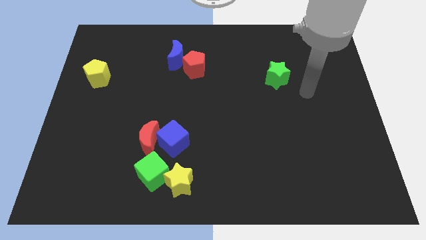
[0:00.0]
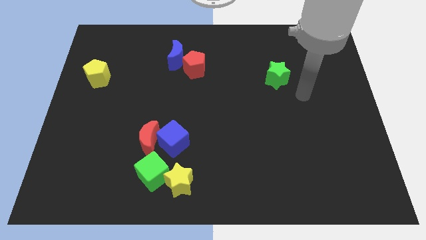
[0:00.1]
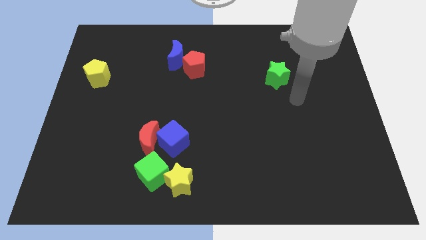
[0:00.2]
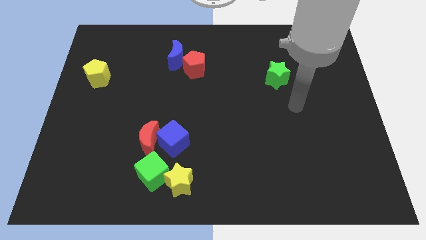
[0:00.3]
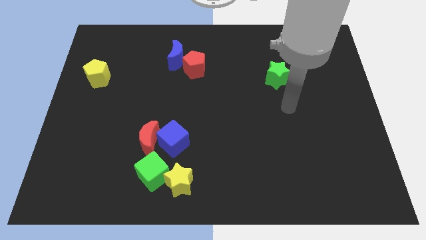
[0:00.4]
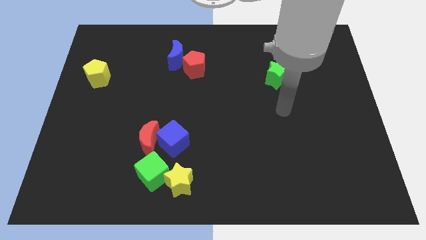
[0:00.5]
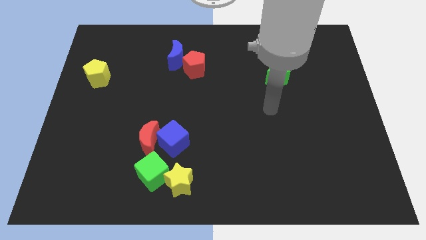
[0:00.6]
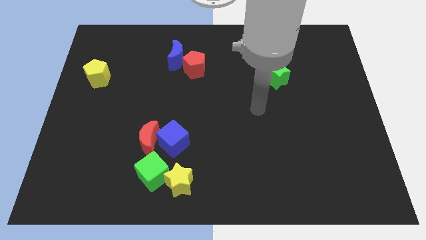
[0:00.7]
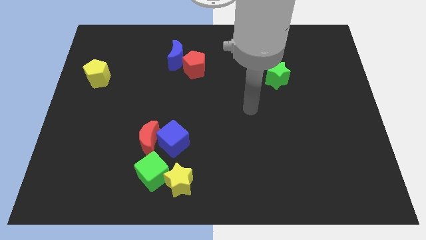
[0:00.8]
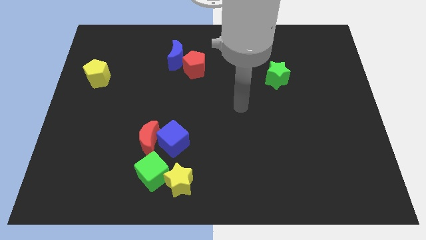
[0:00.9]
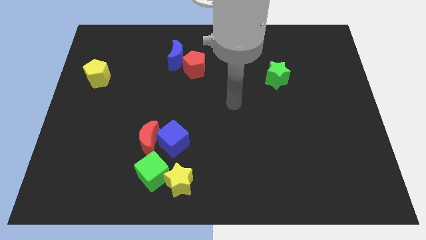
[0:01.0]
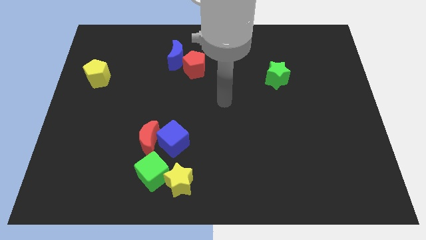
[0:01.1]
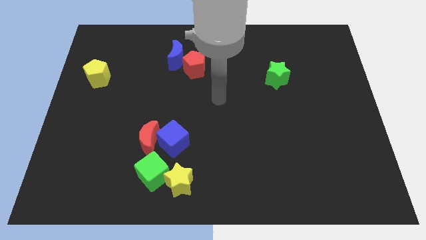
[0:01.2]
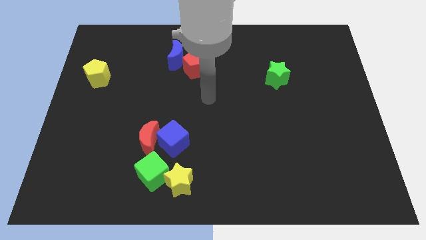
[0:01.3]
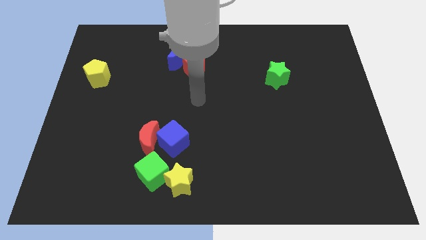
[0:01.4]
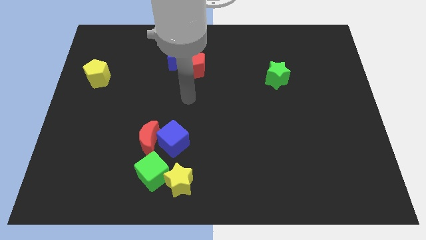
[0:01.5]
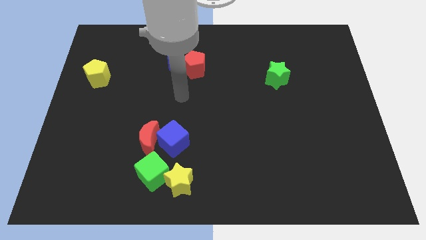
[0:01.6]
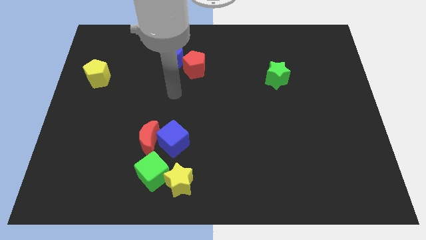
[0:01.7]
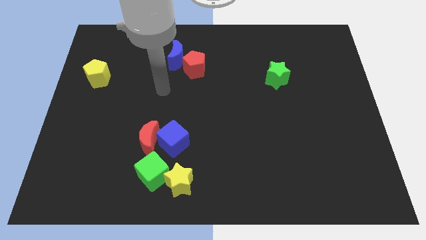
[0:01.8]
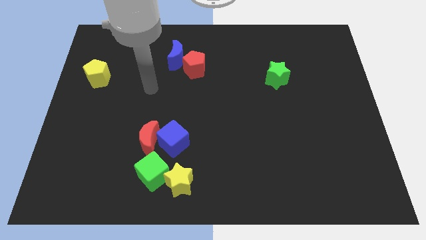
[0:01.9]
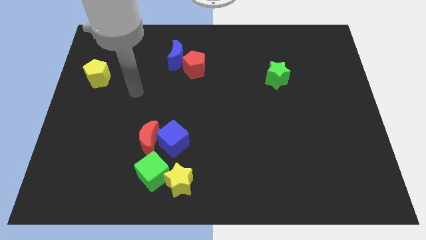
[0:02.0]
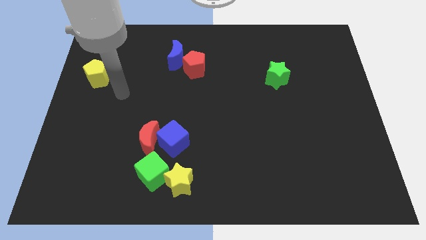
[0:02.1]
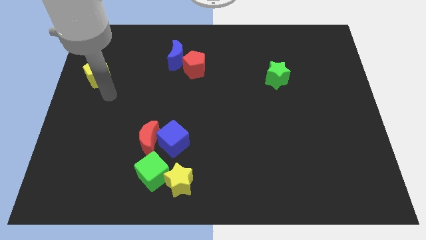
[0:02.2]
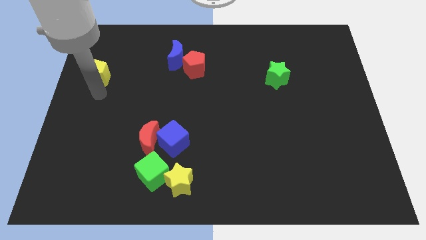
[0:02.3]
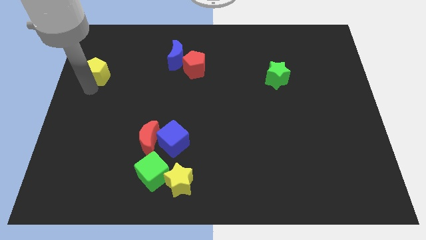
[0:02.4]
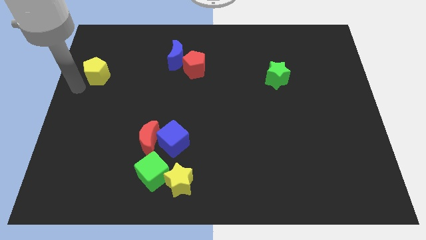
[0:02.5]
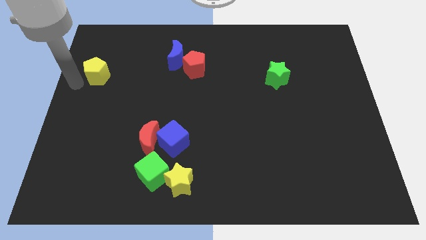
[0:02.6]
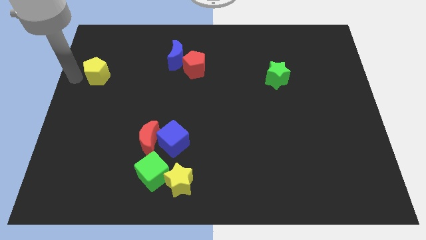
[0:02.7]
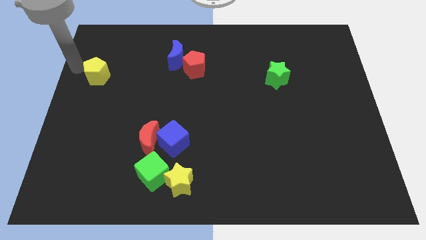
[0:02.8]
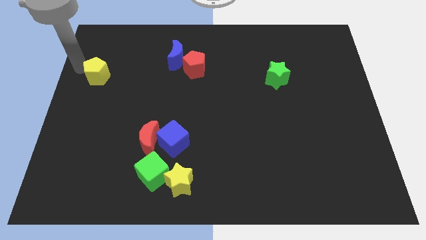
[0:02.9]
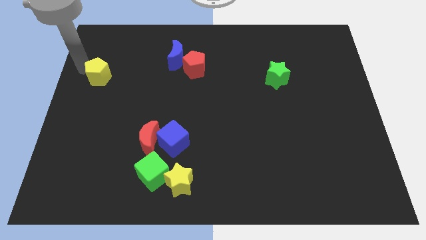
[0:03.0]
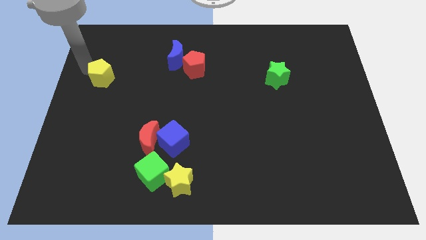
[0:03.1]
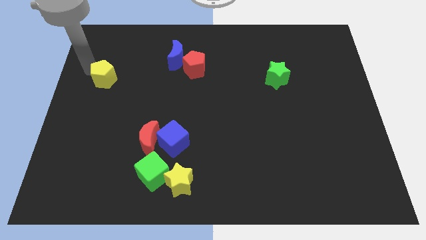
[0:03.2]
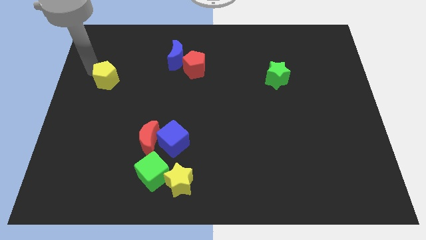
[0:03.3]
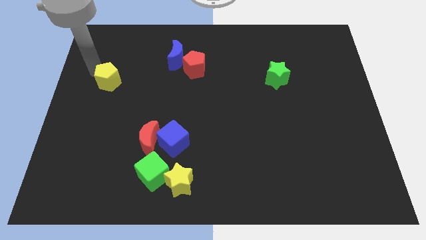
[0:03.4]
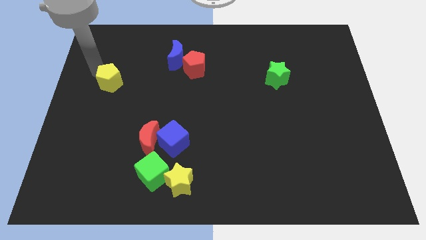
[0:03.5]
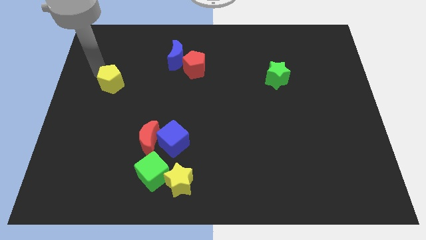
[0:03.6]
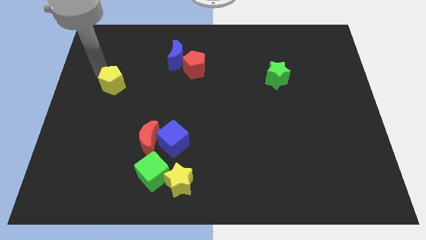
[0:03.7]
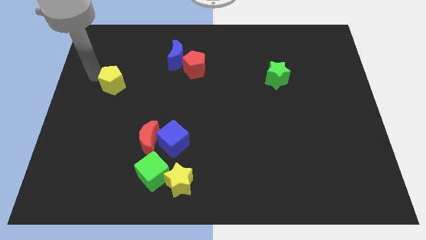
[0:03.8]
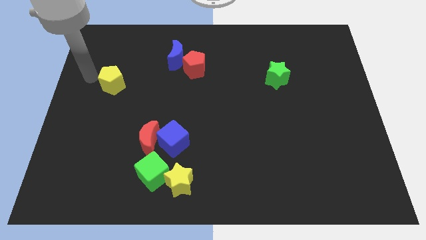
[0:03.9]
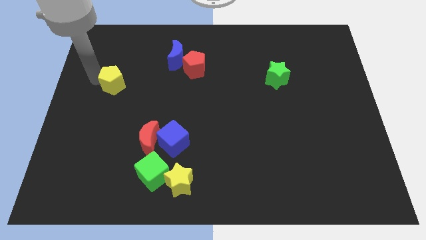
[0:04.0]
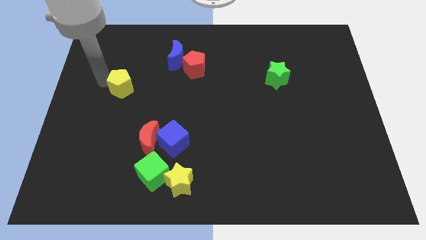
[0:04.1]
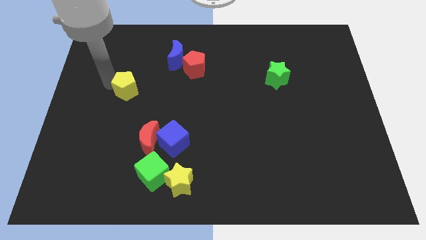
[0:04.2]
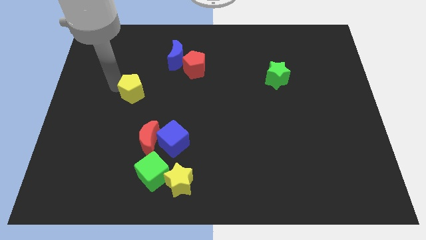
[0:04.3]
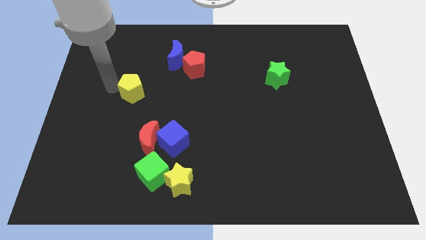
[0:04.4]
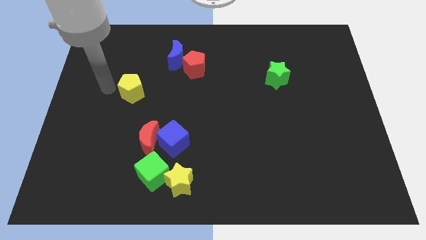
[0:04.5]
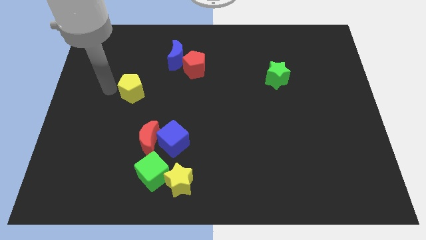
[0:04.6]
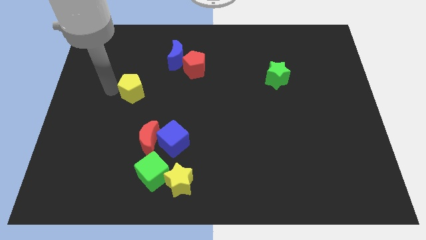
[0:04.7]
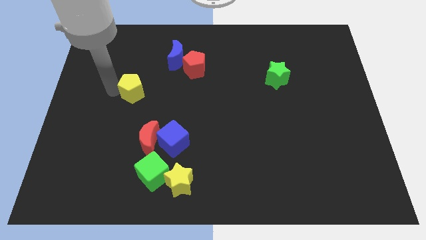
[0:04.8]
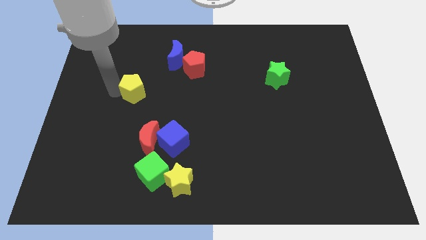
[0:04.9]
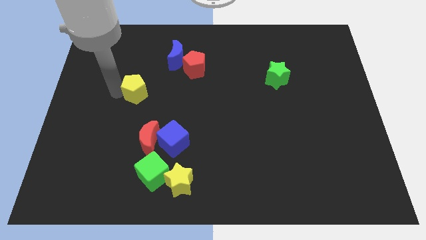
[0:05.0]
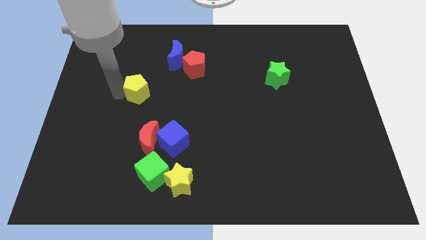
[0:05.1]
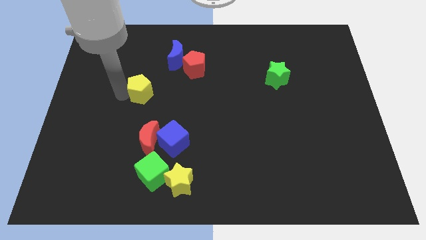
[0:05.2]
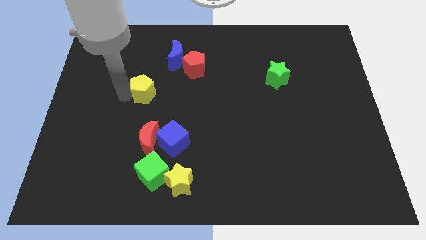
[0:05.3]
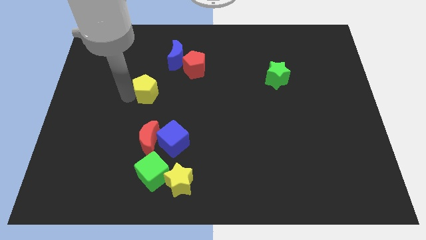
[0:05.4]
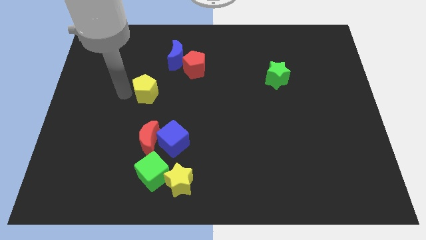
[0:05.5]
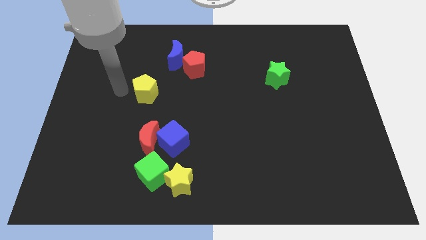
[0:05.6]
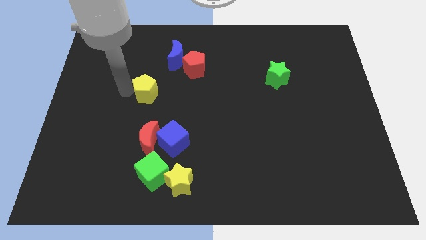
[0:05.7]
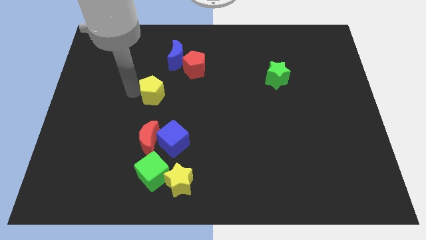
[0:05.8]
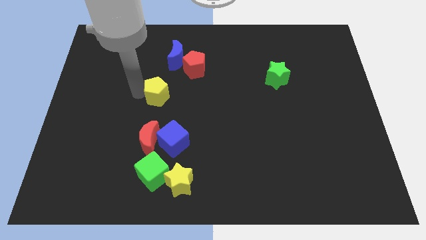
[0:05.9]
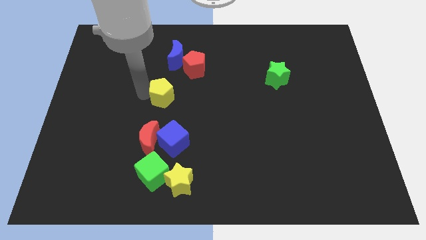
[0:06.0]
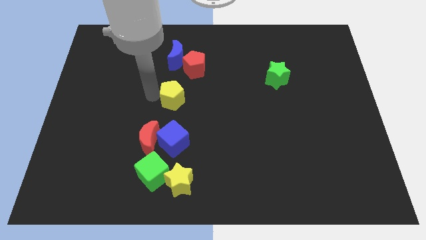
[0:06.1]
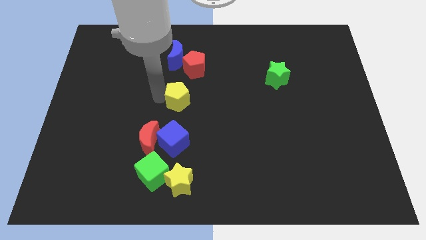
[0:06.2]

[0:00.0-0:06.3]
slide the yellow pentagon below the red pentagon
